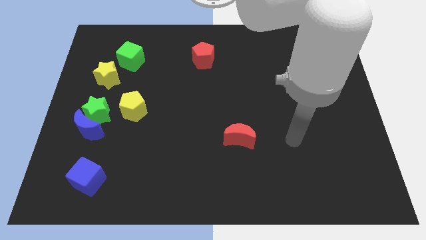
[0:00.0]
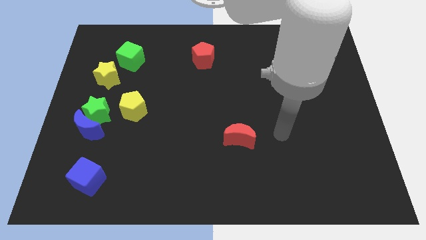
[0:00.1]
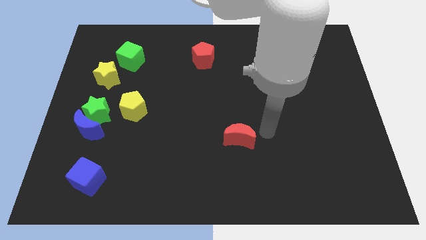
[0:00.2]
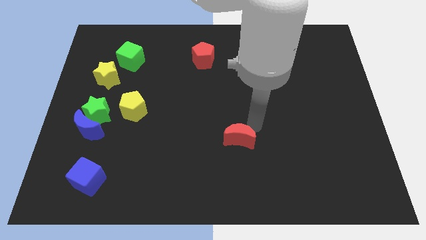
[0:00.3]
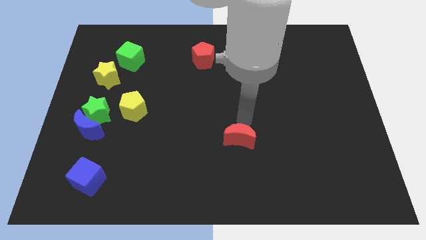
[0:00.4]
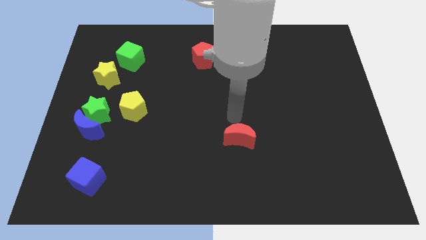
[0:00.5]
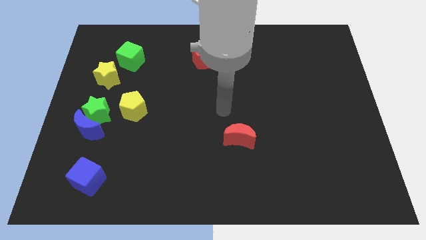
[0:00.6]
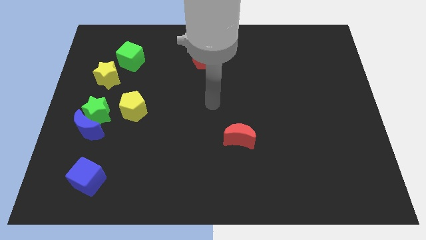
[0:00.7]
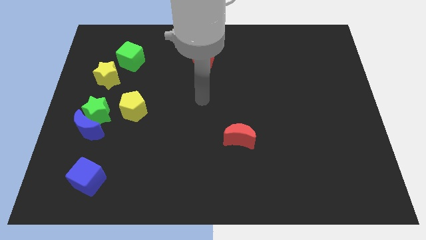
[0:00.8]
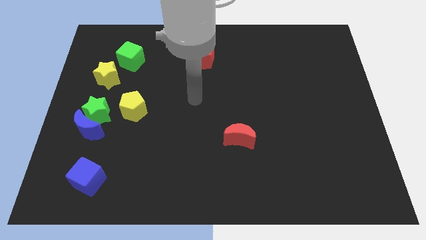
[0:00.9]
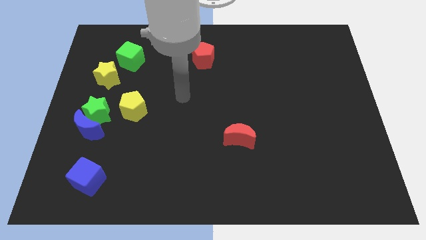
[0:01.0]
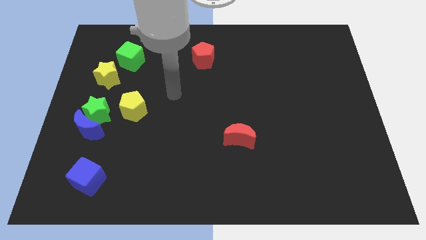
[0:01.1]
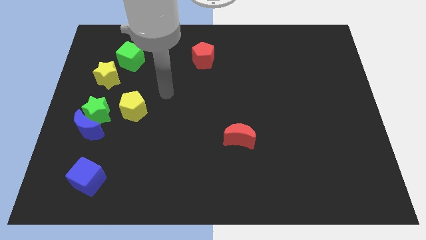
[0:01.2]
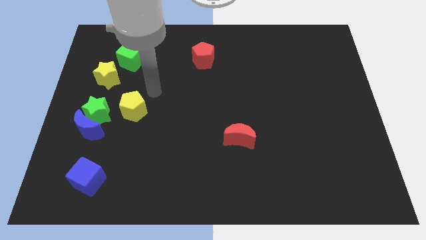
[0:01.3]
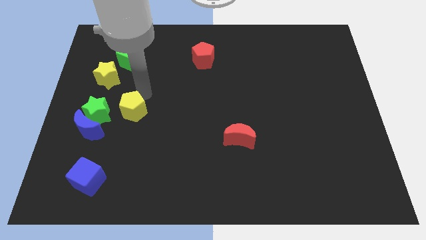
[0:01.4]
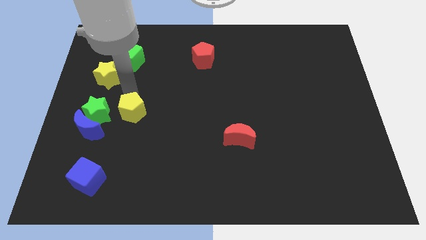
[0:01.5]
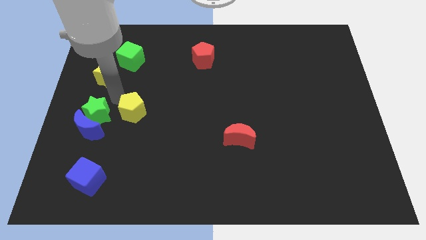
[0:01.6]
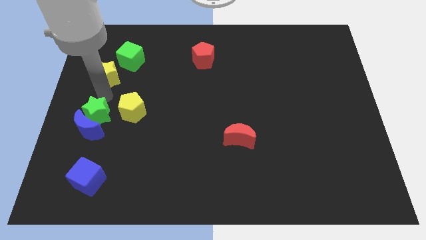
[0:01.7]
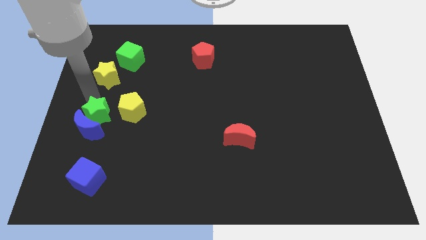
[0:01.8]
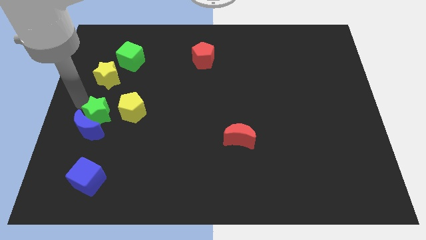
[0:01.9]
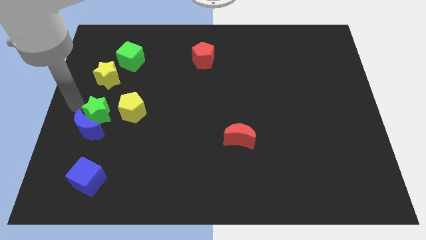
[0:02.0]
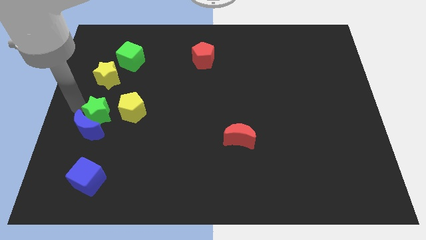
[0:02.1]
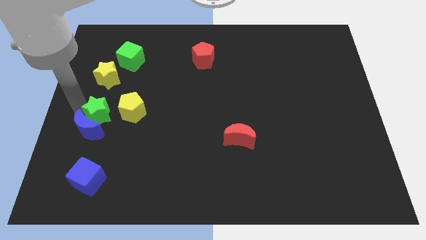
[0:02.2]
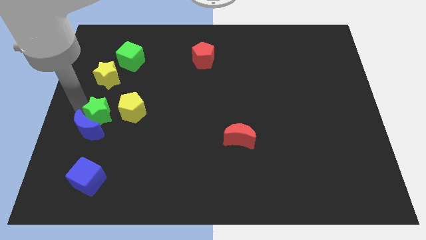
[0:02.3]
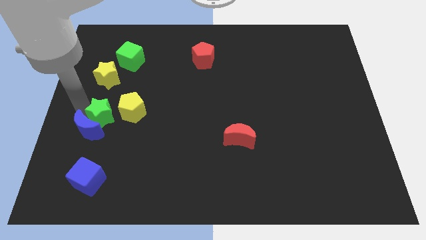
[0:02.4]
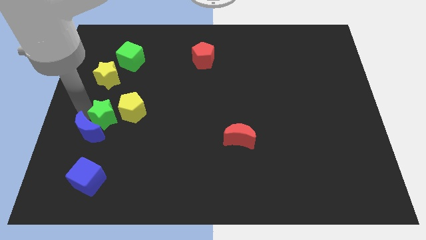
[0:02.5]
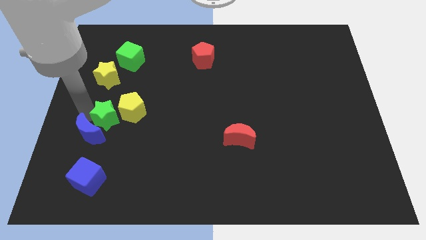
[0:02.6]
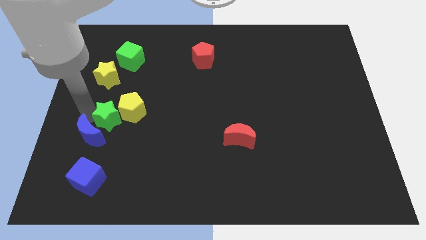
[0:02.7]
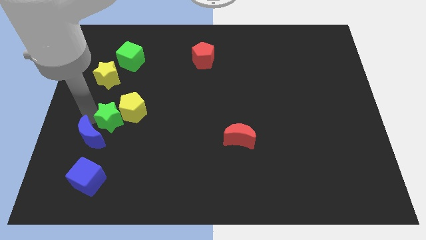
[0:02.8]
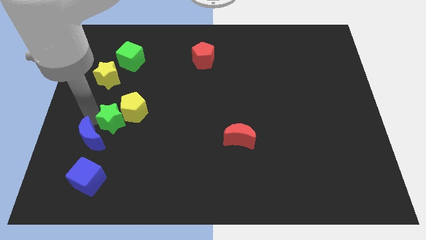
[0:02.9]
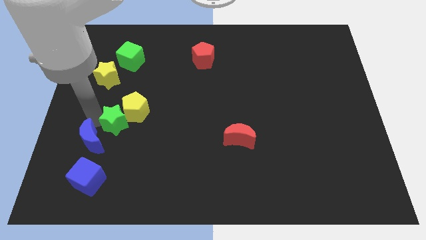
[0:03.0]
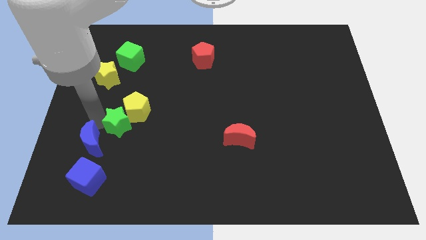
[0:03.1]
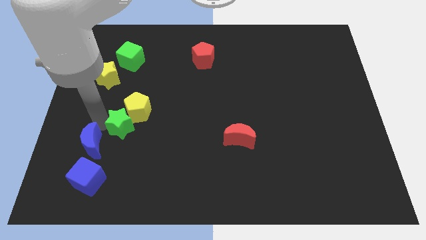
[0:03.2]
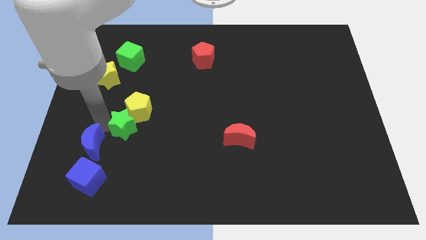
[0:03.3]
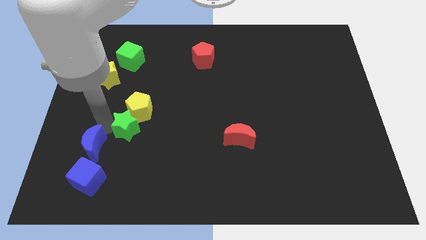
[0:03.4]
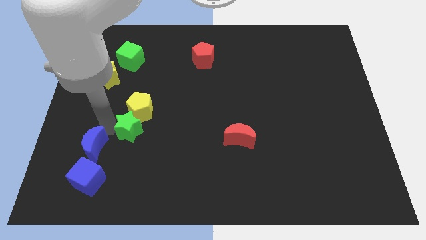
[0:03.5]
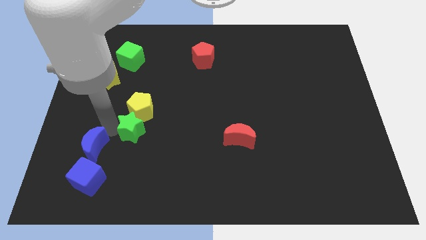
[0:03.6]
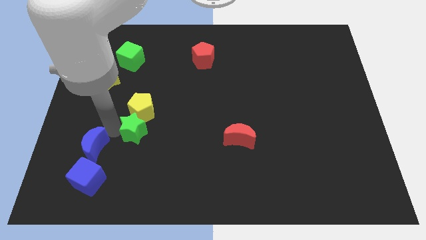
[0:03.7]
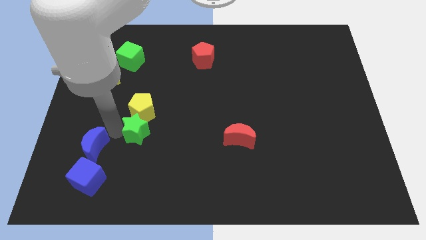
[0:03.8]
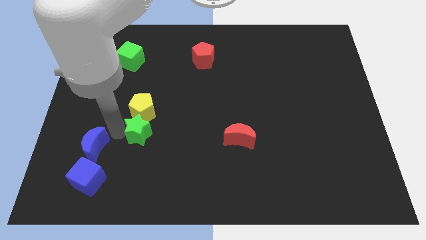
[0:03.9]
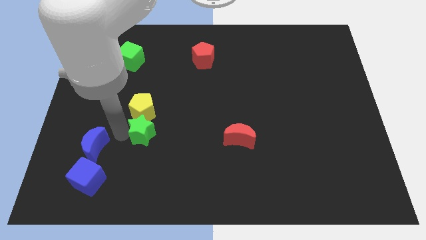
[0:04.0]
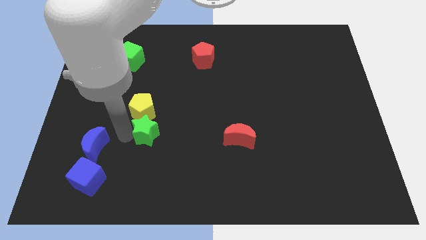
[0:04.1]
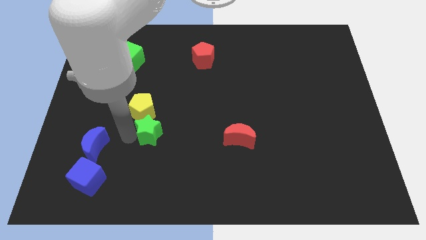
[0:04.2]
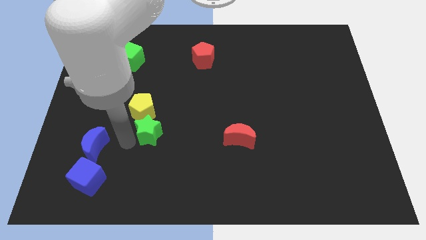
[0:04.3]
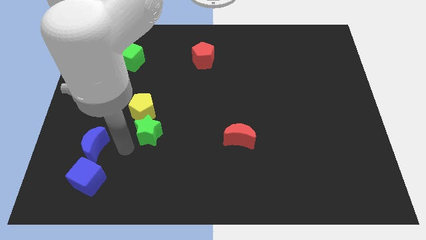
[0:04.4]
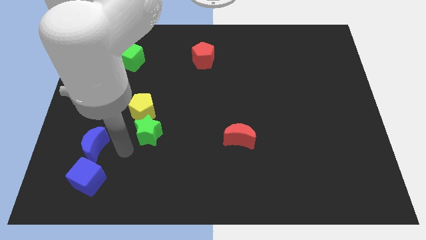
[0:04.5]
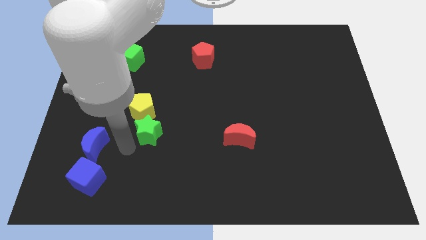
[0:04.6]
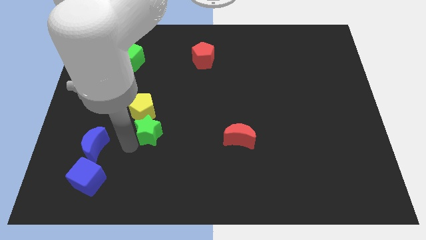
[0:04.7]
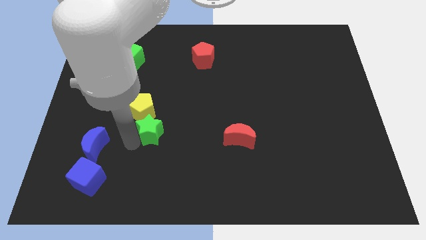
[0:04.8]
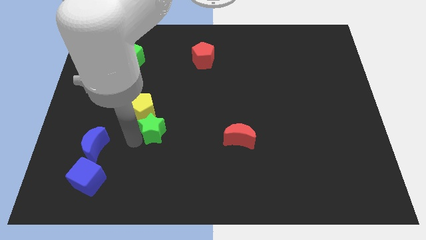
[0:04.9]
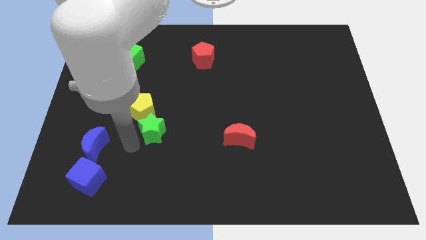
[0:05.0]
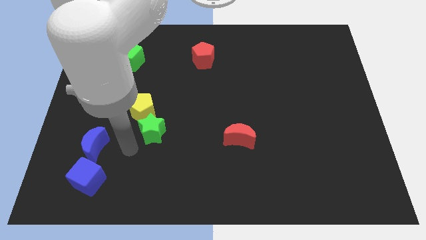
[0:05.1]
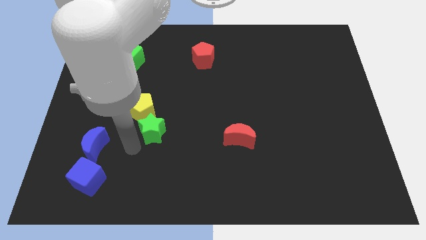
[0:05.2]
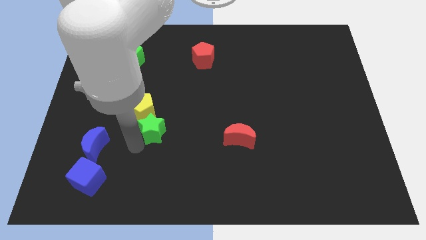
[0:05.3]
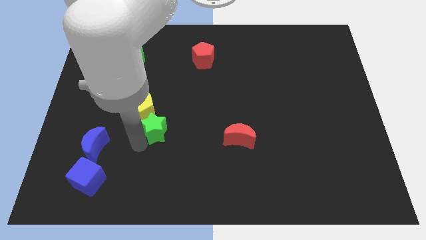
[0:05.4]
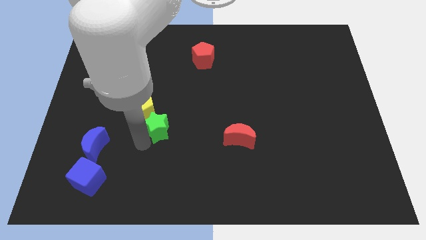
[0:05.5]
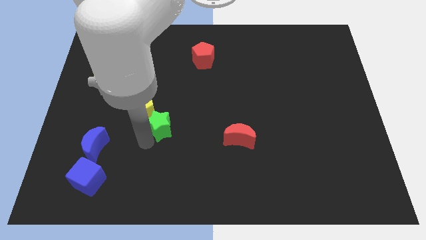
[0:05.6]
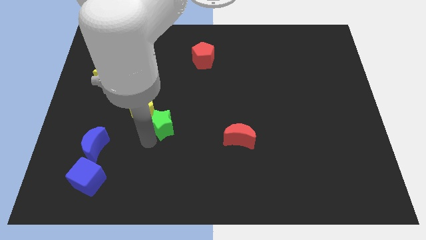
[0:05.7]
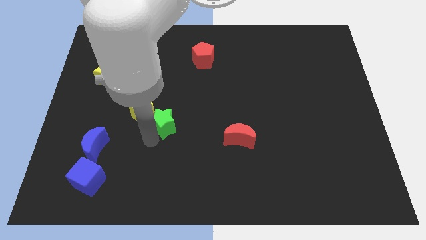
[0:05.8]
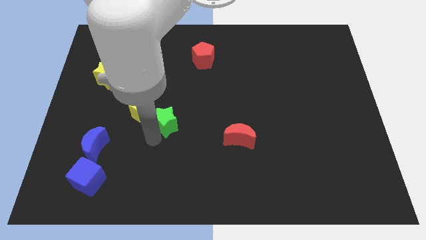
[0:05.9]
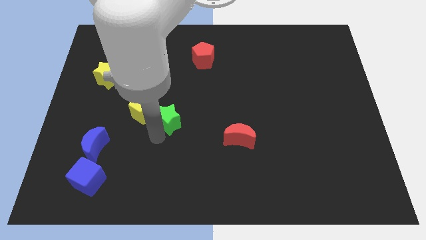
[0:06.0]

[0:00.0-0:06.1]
move the green star to the center of the board
